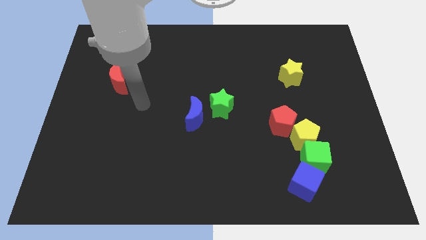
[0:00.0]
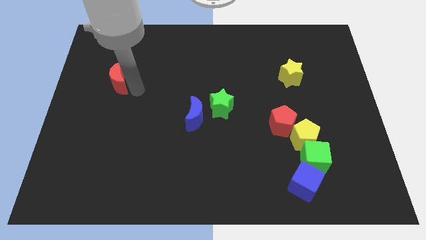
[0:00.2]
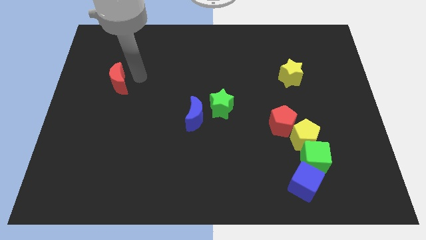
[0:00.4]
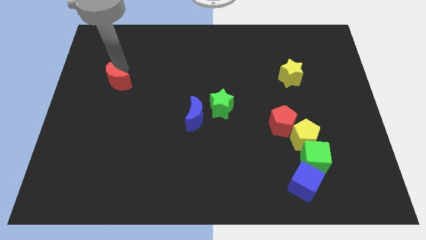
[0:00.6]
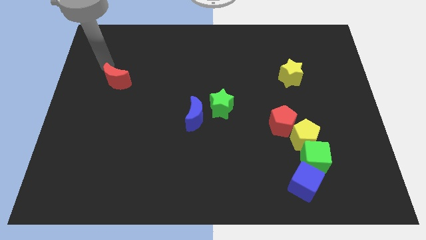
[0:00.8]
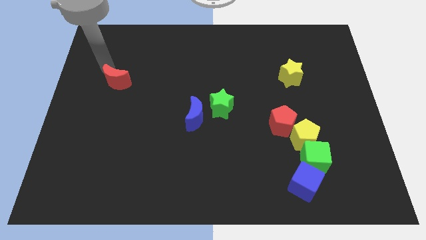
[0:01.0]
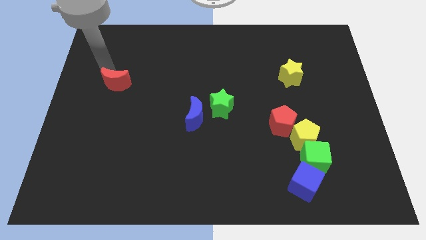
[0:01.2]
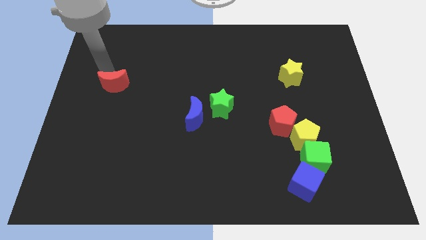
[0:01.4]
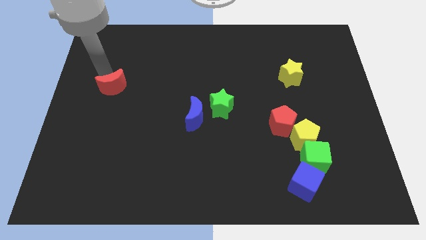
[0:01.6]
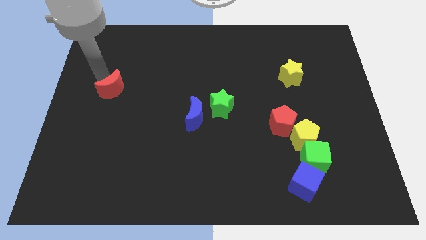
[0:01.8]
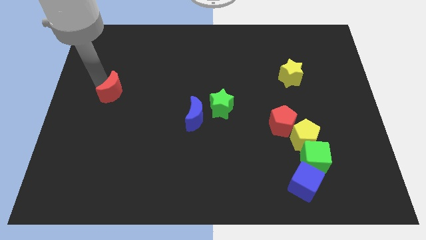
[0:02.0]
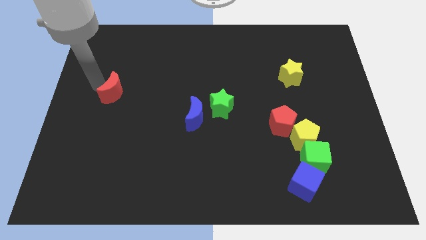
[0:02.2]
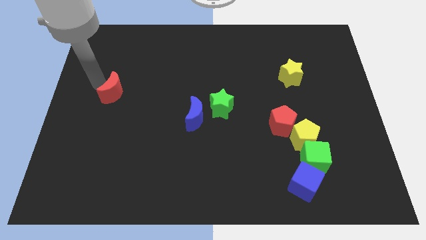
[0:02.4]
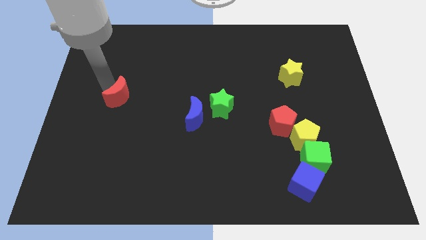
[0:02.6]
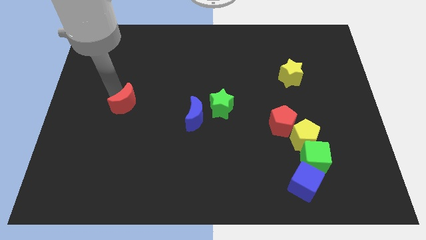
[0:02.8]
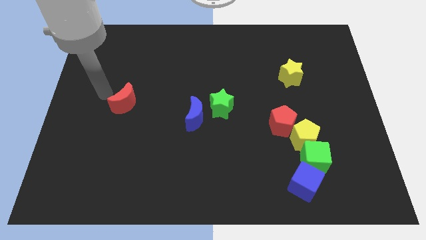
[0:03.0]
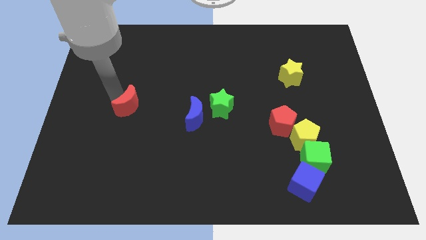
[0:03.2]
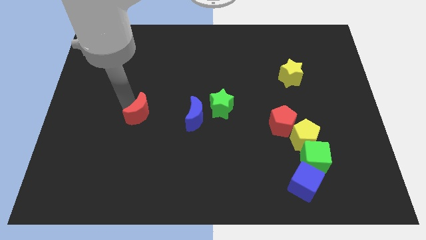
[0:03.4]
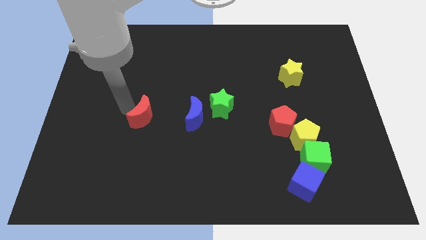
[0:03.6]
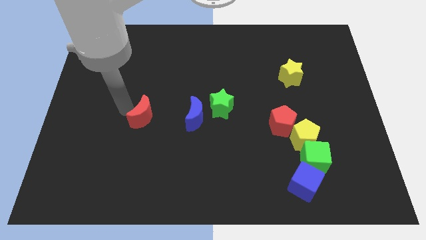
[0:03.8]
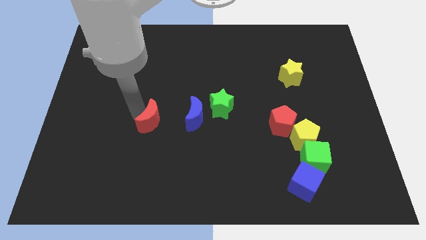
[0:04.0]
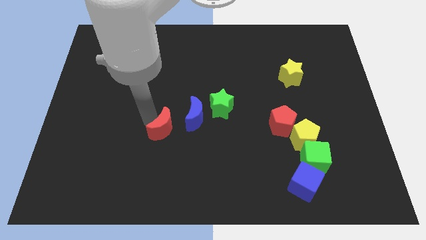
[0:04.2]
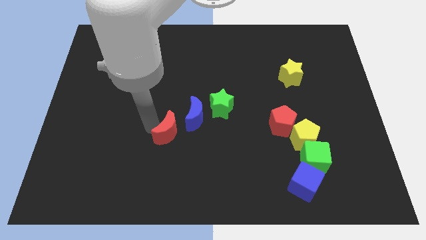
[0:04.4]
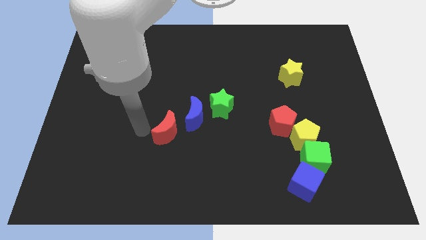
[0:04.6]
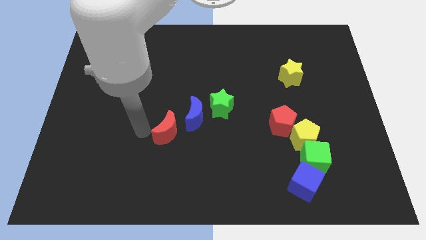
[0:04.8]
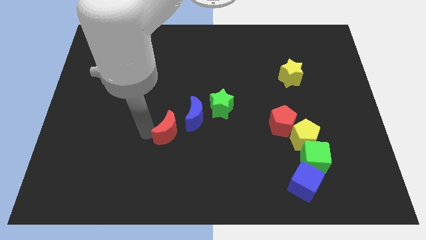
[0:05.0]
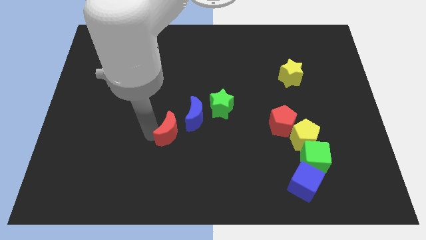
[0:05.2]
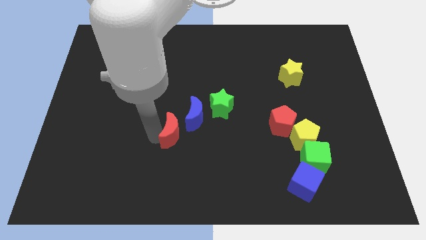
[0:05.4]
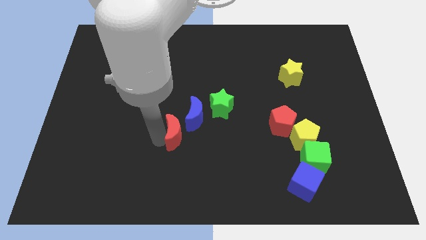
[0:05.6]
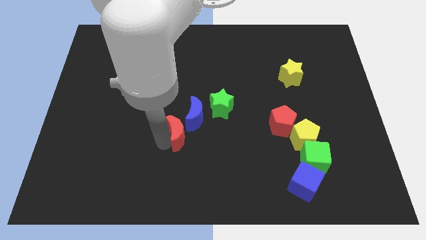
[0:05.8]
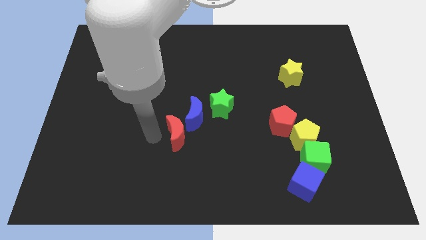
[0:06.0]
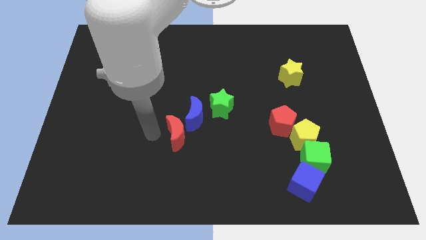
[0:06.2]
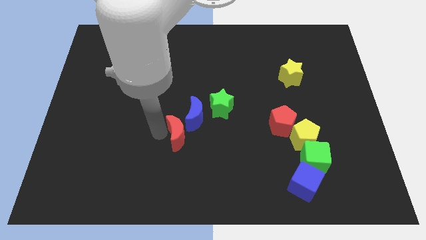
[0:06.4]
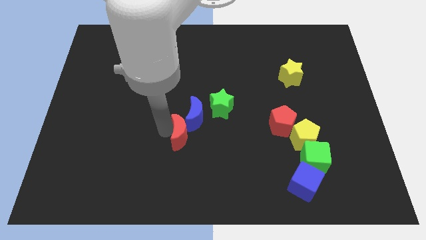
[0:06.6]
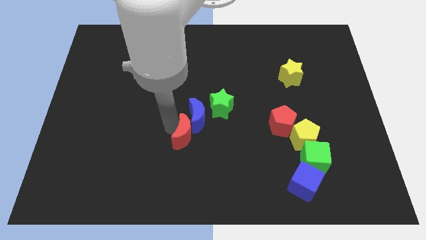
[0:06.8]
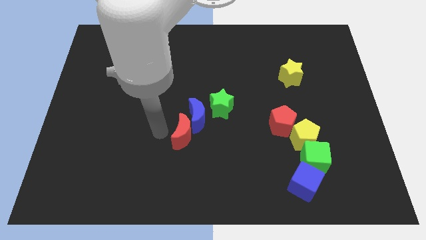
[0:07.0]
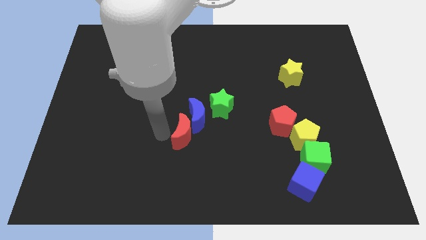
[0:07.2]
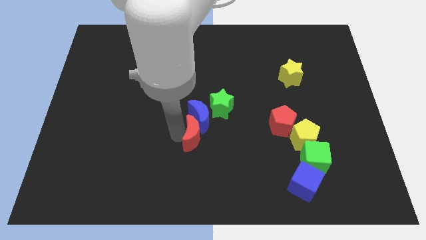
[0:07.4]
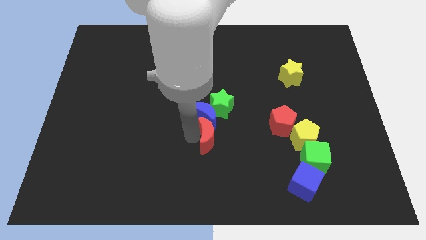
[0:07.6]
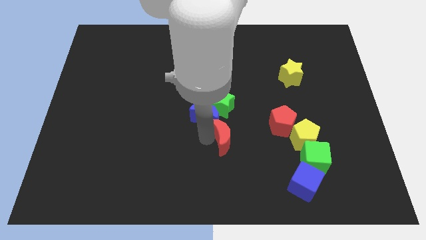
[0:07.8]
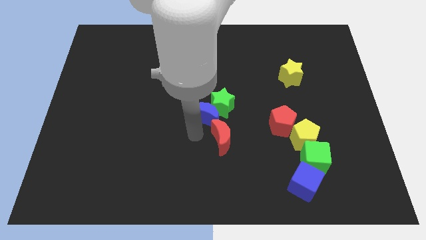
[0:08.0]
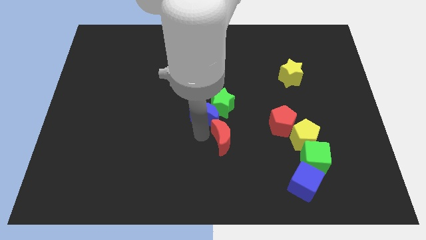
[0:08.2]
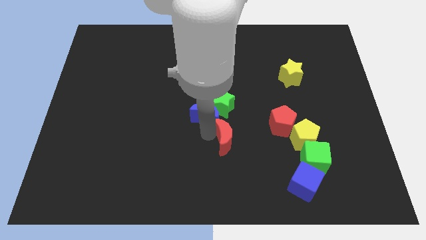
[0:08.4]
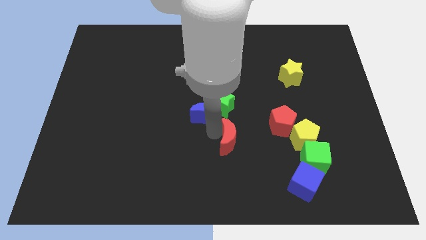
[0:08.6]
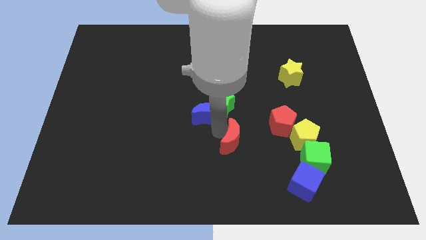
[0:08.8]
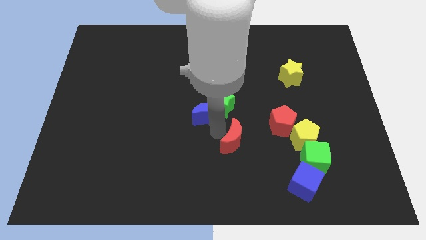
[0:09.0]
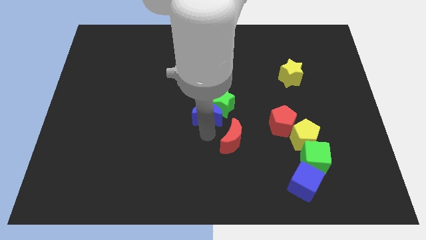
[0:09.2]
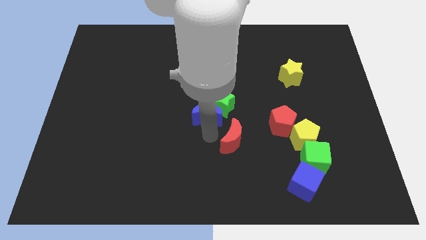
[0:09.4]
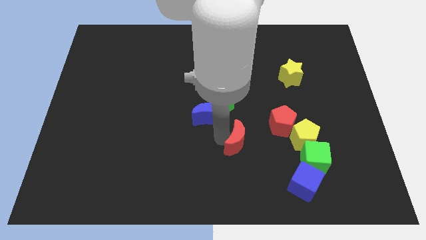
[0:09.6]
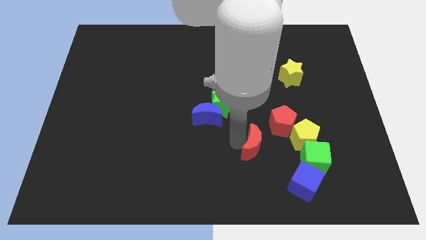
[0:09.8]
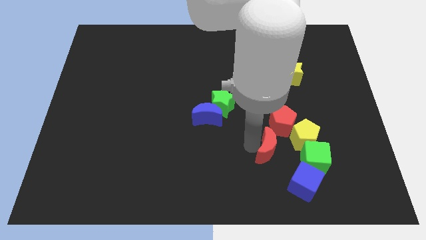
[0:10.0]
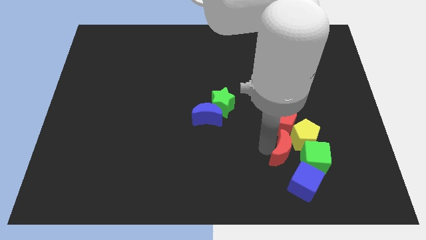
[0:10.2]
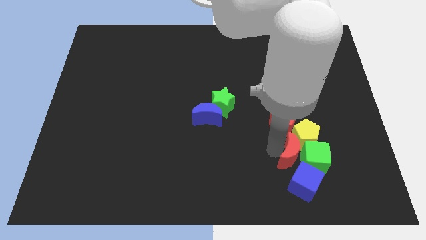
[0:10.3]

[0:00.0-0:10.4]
move the red moon towards the green cube

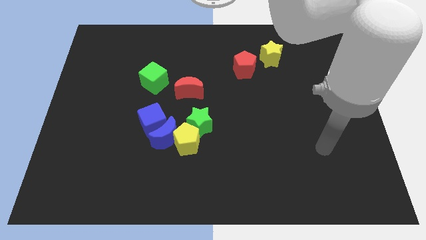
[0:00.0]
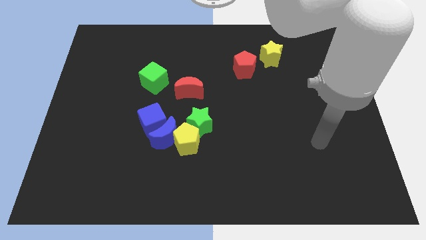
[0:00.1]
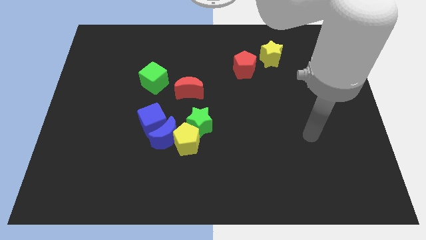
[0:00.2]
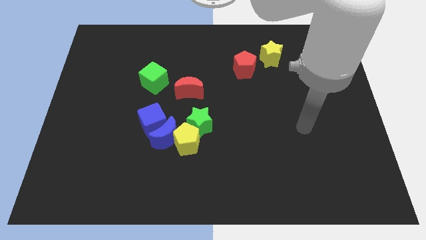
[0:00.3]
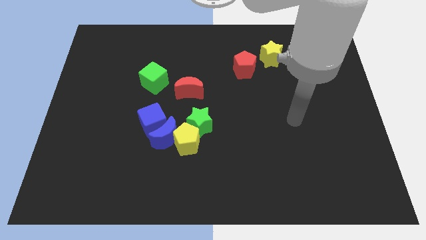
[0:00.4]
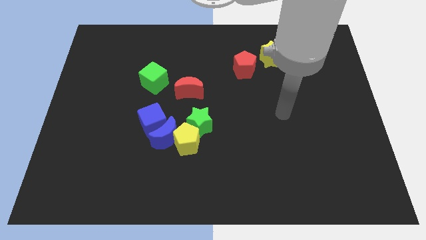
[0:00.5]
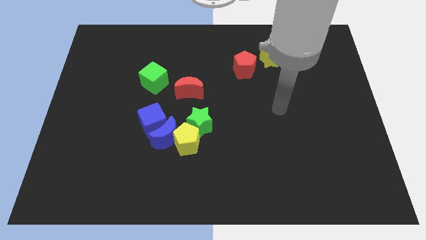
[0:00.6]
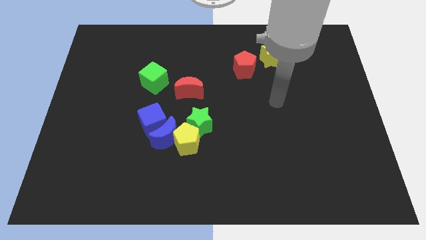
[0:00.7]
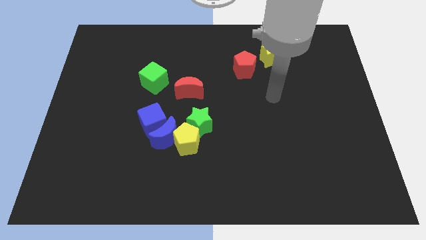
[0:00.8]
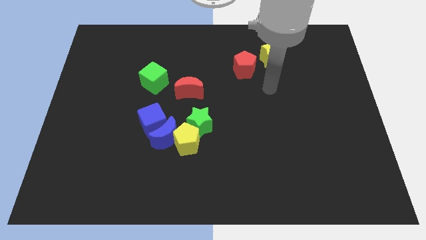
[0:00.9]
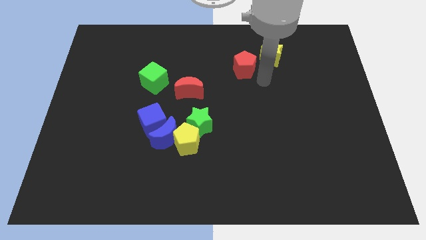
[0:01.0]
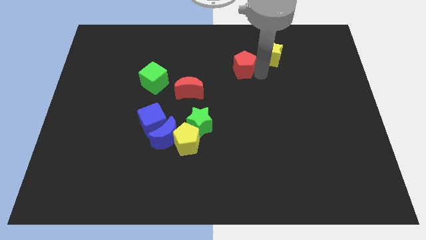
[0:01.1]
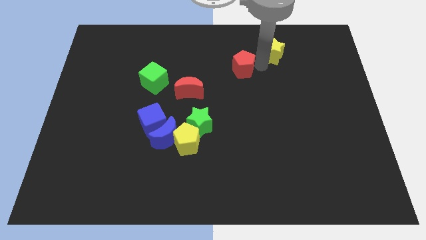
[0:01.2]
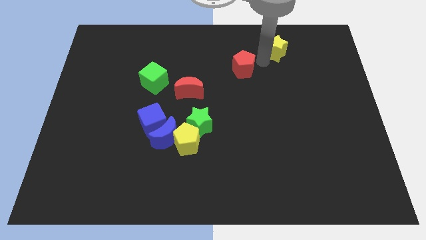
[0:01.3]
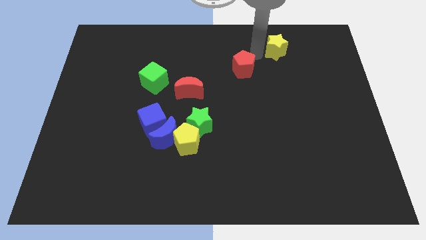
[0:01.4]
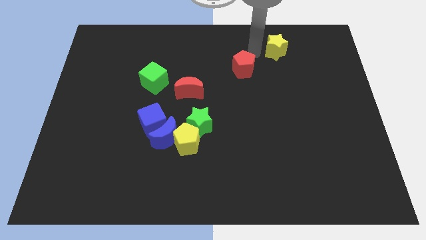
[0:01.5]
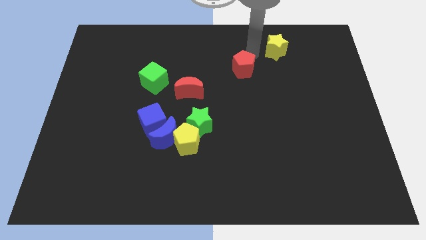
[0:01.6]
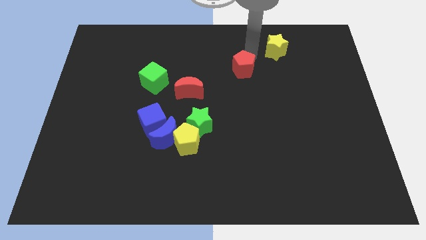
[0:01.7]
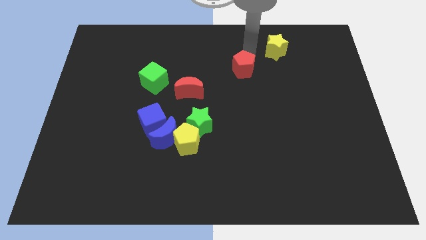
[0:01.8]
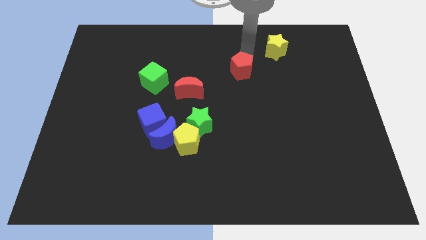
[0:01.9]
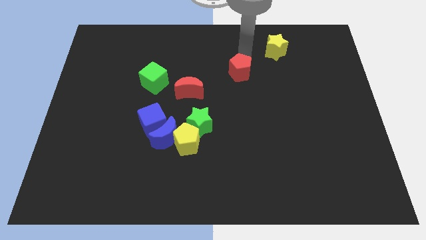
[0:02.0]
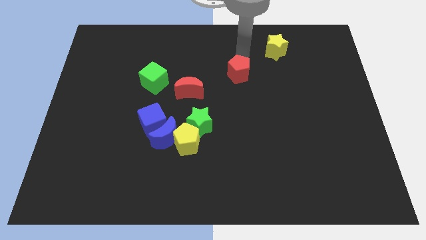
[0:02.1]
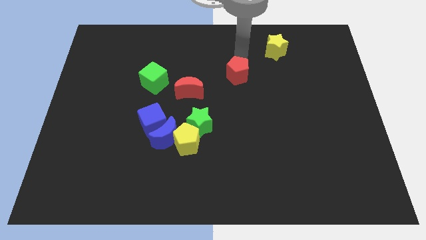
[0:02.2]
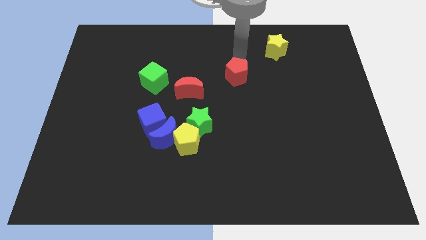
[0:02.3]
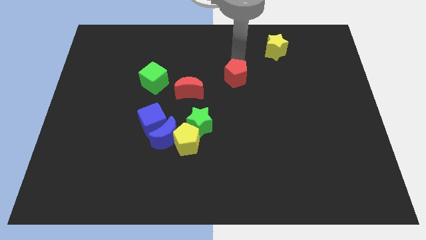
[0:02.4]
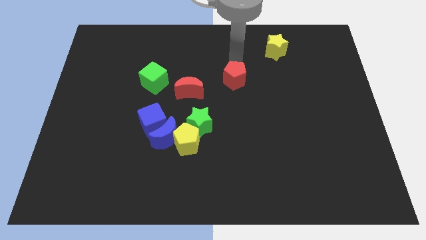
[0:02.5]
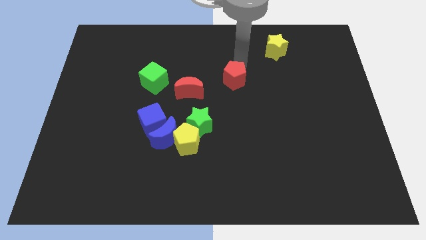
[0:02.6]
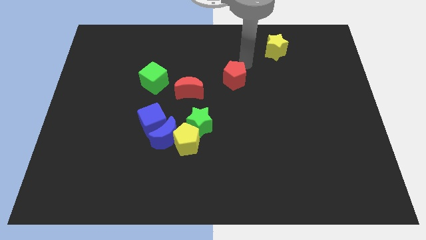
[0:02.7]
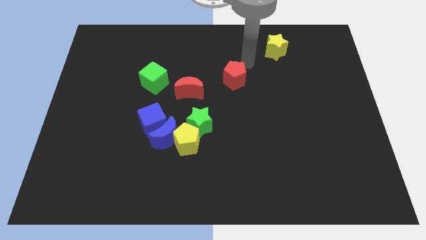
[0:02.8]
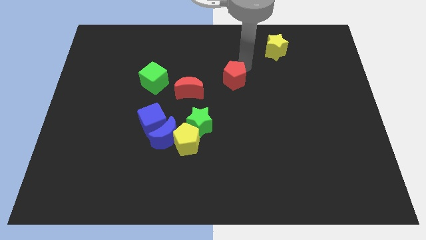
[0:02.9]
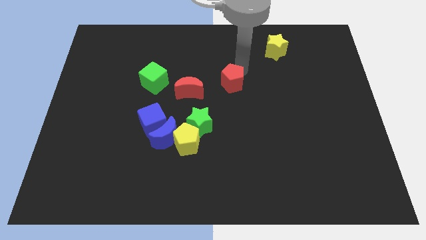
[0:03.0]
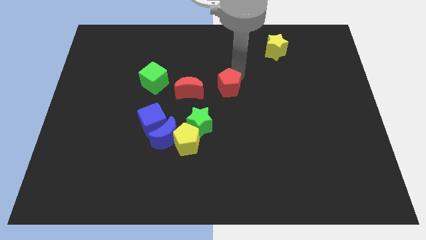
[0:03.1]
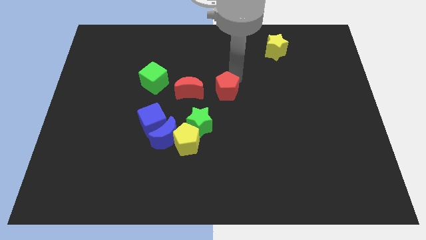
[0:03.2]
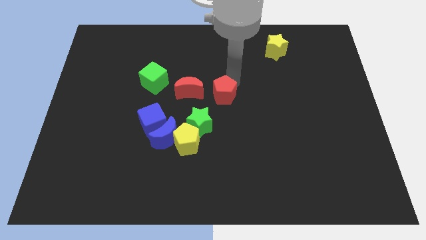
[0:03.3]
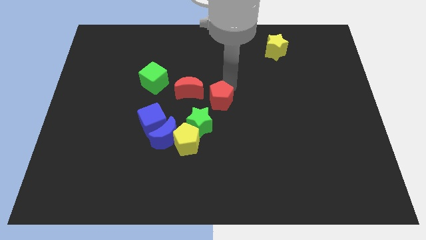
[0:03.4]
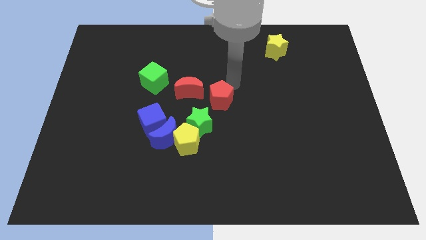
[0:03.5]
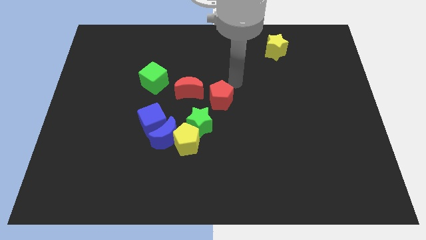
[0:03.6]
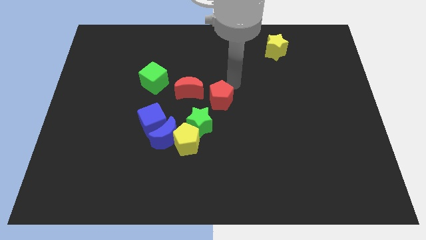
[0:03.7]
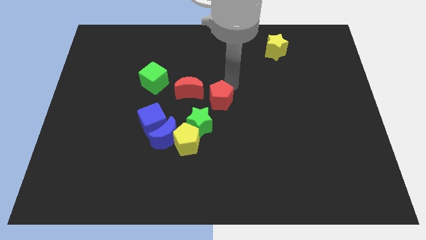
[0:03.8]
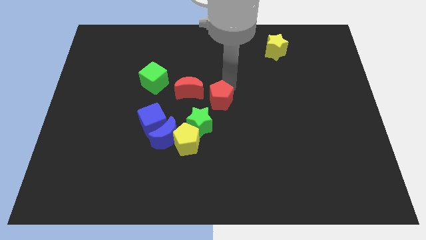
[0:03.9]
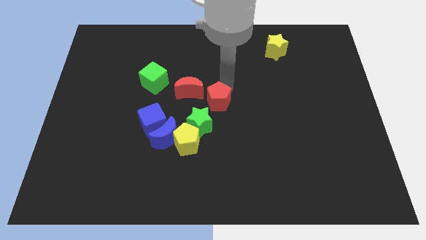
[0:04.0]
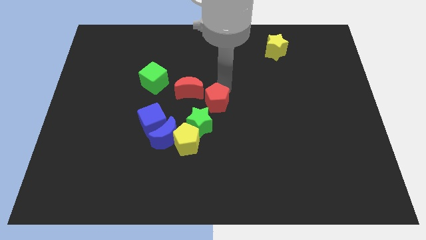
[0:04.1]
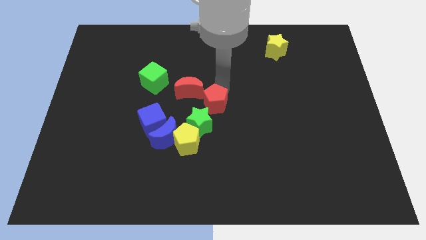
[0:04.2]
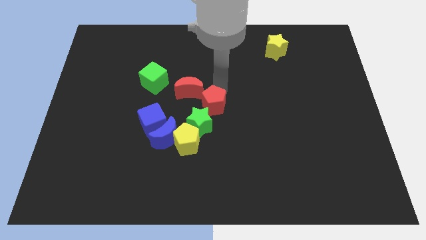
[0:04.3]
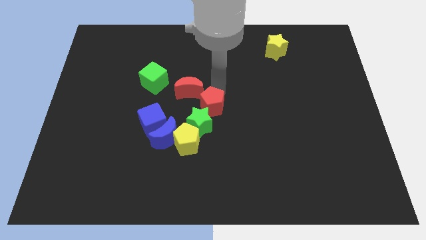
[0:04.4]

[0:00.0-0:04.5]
move the red pentagon close to the green star
